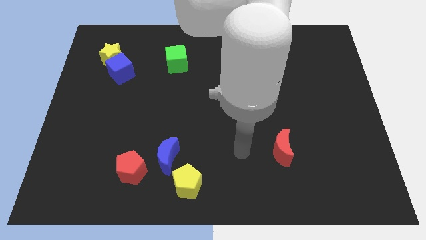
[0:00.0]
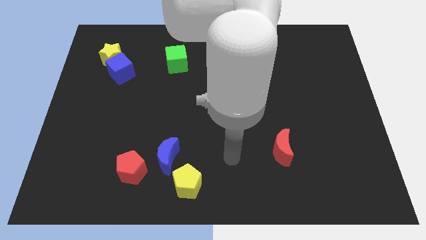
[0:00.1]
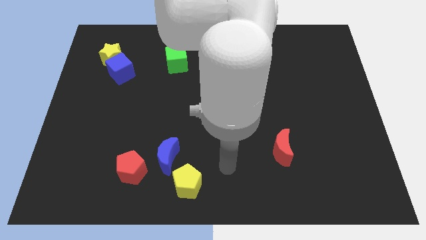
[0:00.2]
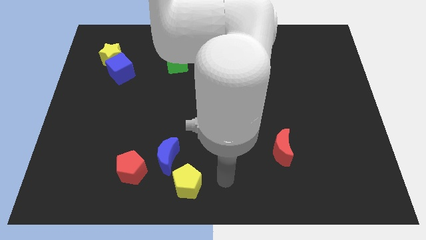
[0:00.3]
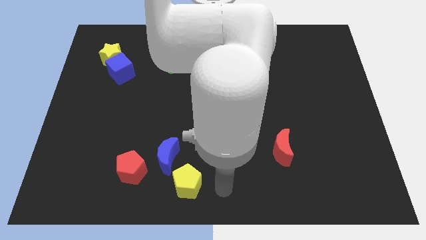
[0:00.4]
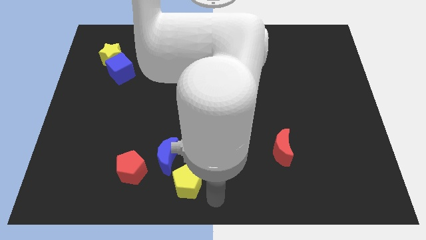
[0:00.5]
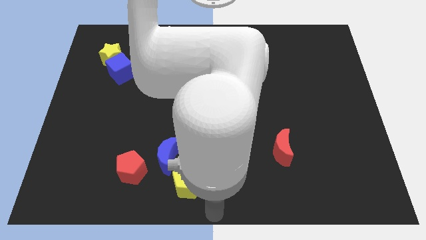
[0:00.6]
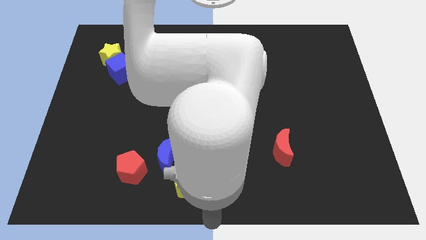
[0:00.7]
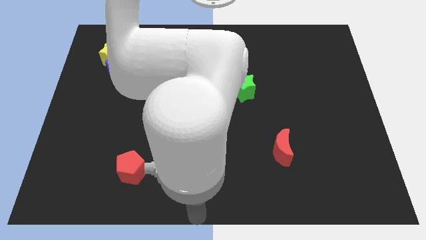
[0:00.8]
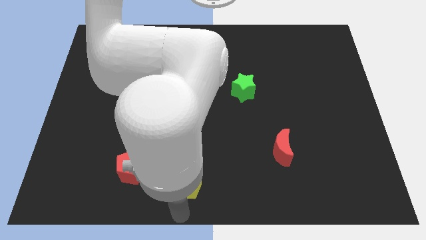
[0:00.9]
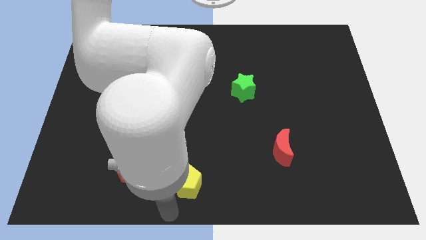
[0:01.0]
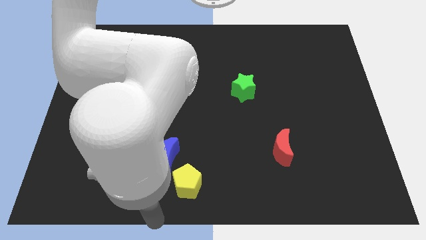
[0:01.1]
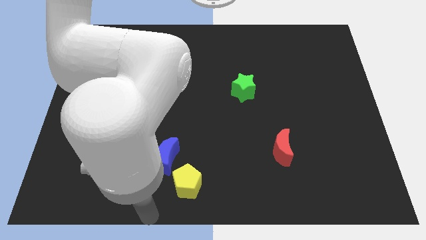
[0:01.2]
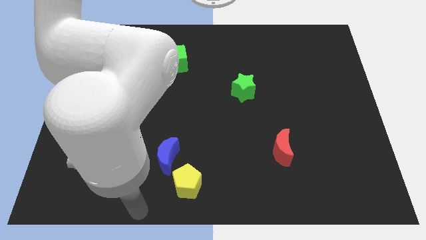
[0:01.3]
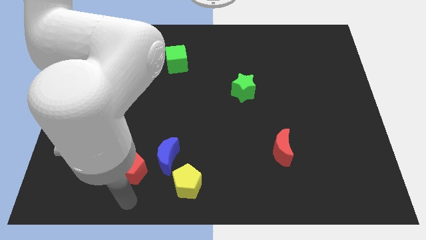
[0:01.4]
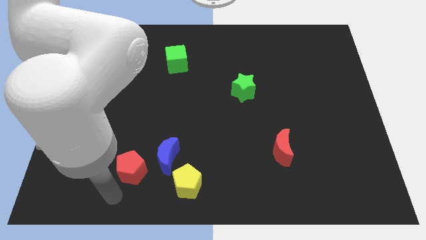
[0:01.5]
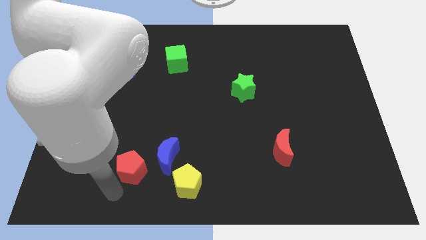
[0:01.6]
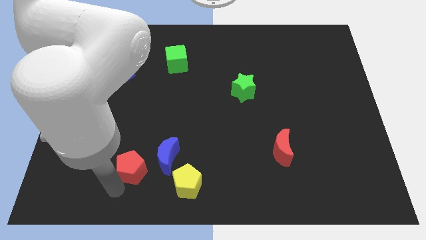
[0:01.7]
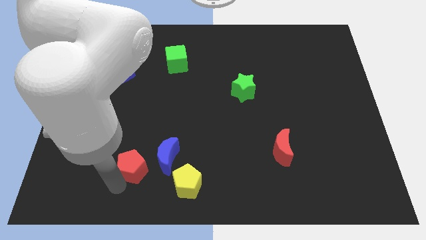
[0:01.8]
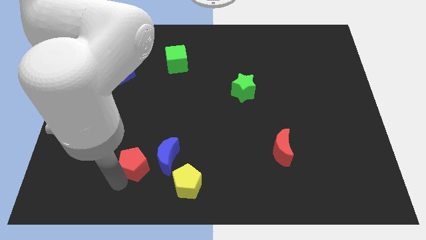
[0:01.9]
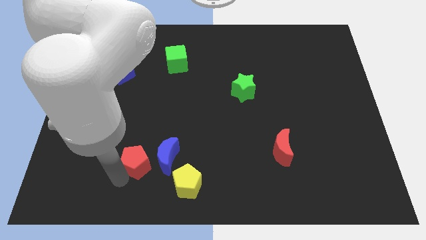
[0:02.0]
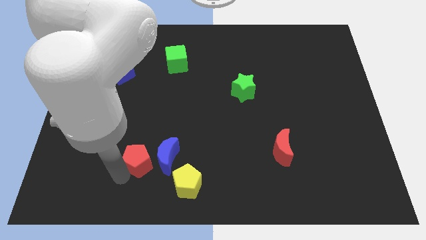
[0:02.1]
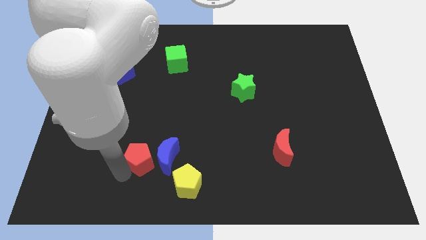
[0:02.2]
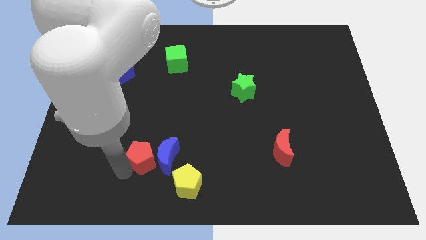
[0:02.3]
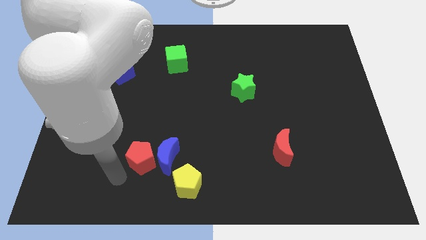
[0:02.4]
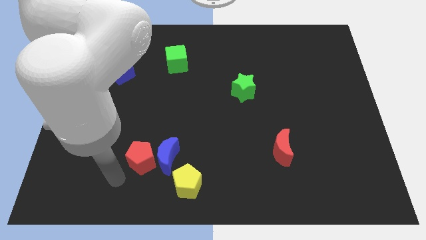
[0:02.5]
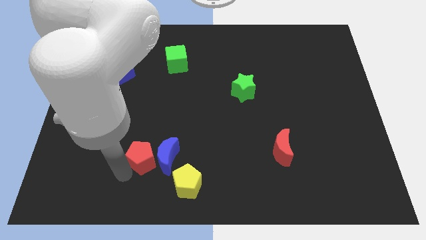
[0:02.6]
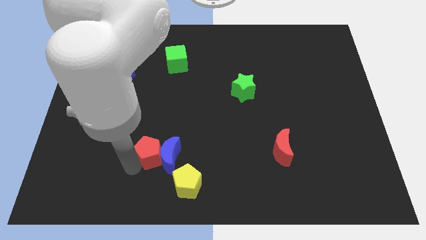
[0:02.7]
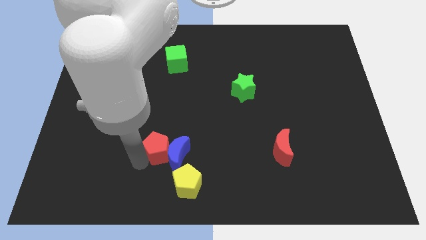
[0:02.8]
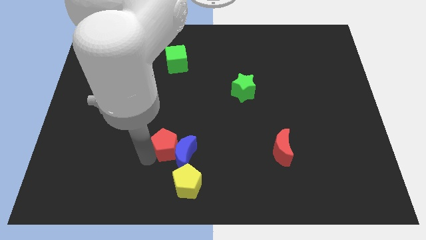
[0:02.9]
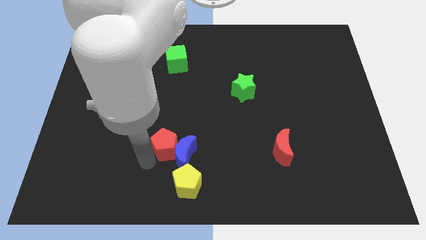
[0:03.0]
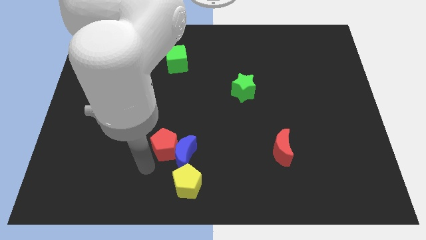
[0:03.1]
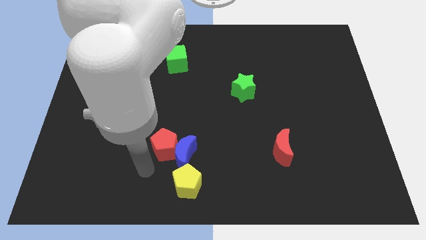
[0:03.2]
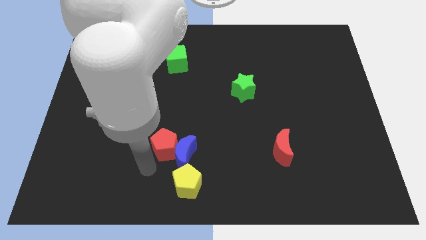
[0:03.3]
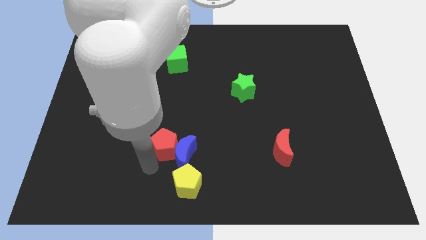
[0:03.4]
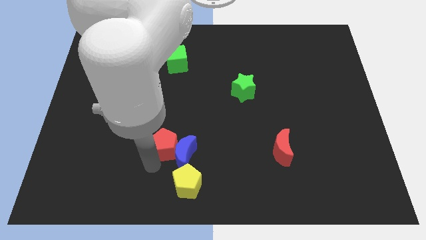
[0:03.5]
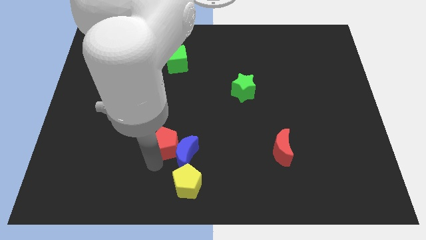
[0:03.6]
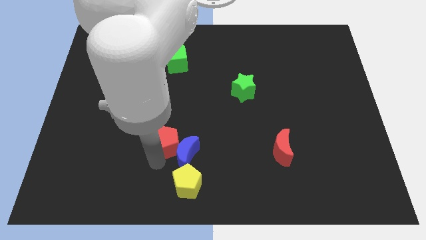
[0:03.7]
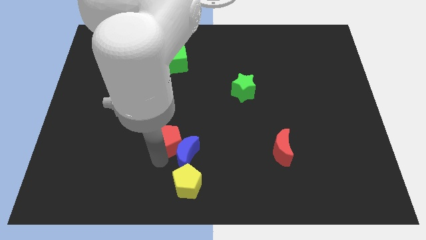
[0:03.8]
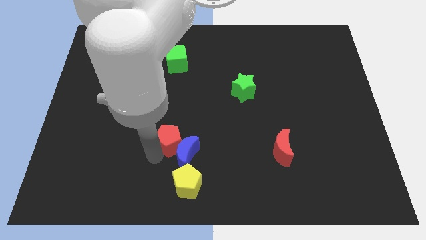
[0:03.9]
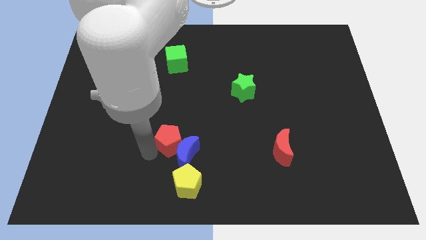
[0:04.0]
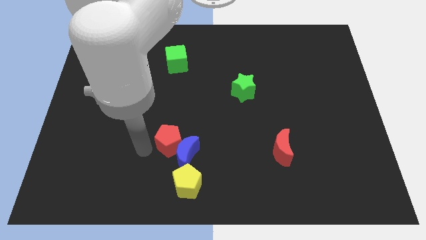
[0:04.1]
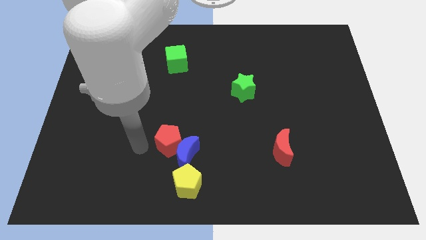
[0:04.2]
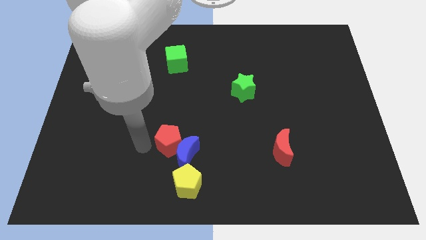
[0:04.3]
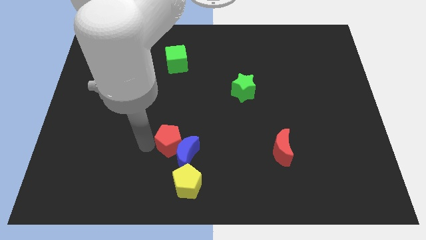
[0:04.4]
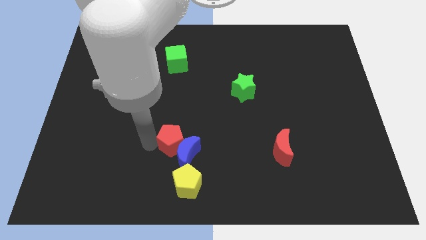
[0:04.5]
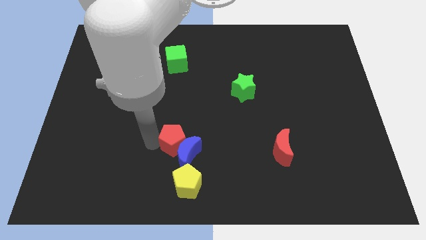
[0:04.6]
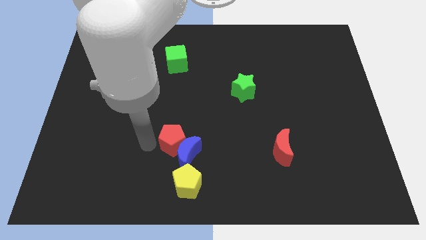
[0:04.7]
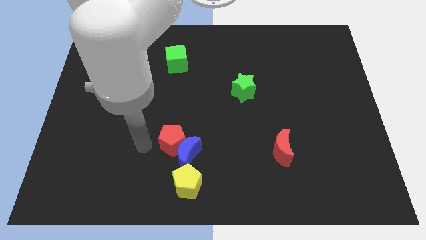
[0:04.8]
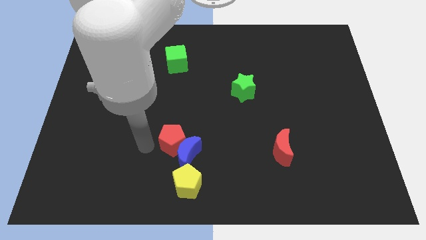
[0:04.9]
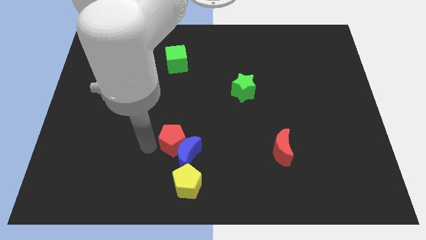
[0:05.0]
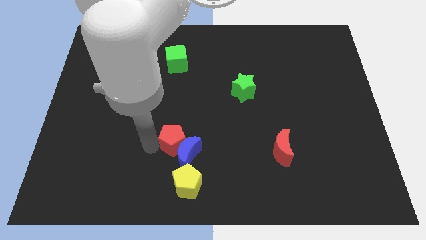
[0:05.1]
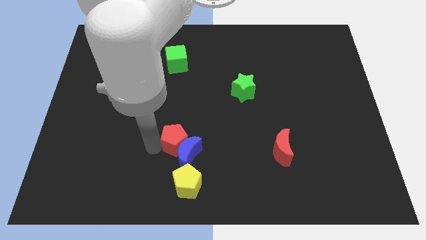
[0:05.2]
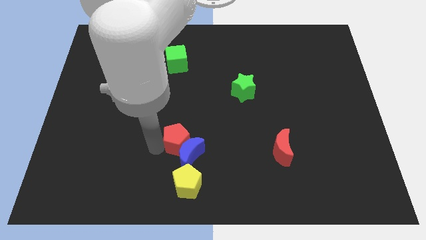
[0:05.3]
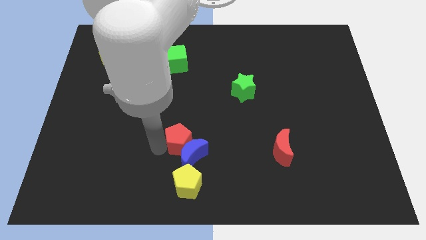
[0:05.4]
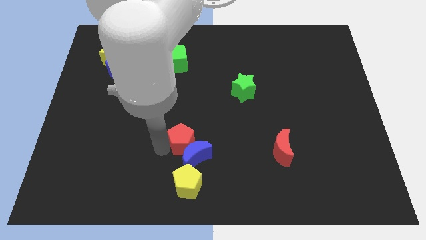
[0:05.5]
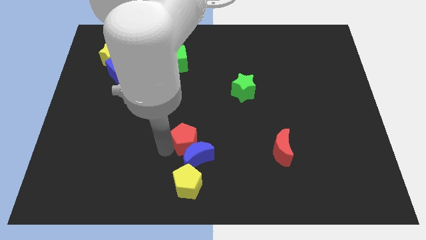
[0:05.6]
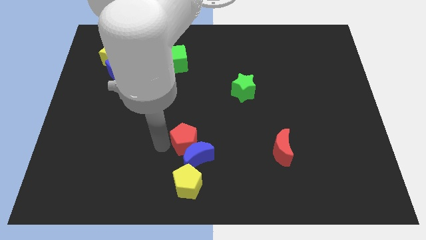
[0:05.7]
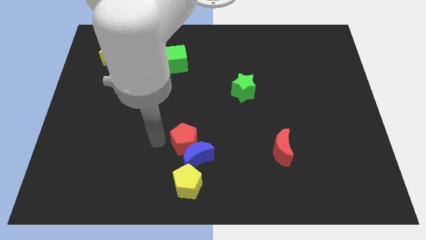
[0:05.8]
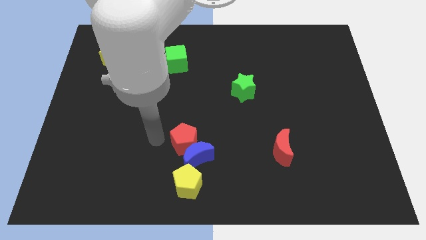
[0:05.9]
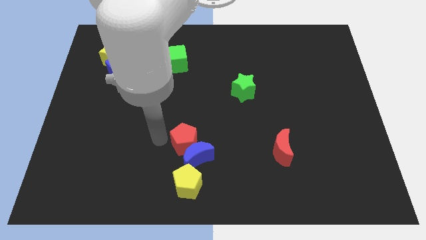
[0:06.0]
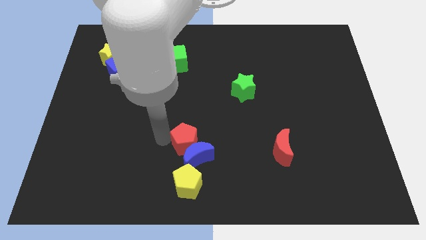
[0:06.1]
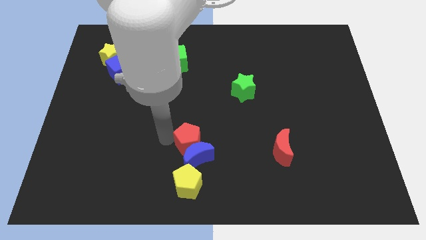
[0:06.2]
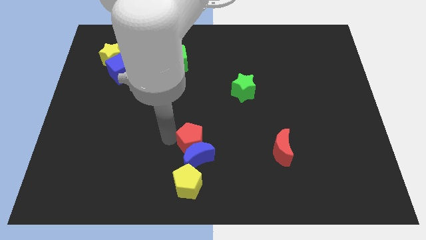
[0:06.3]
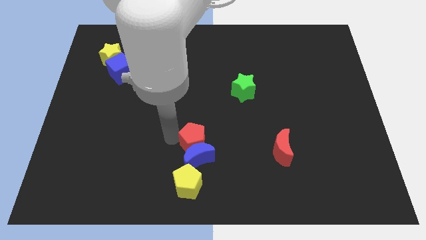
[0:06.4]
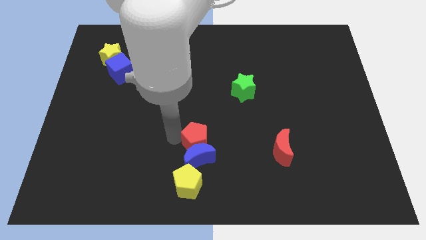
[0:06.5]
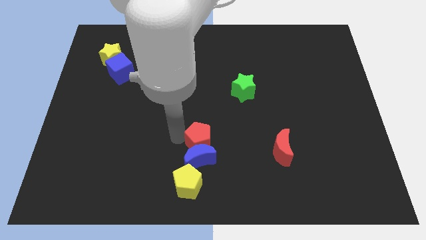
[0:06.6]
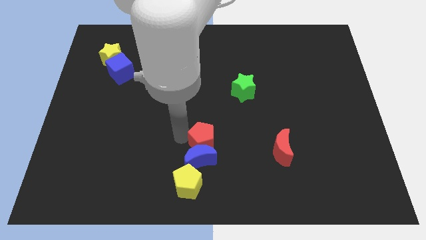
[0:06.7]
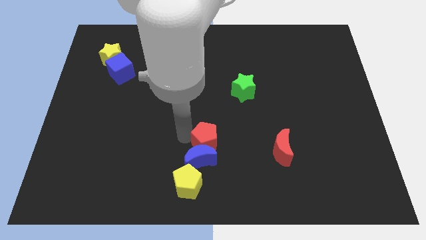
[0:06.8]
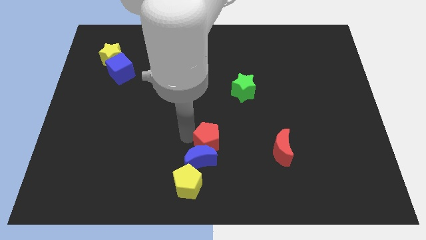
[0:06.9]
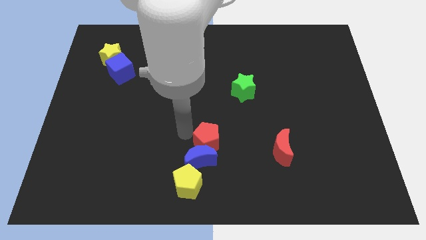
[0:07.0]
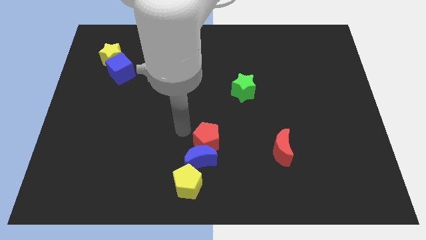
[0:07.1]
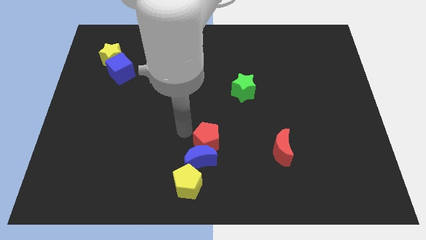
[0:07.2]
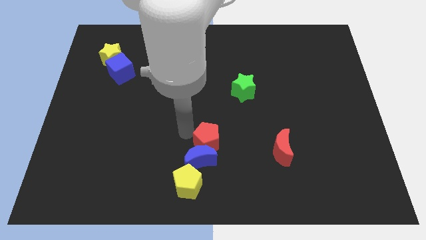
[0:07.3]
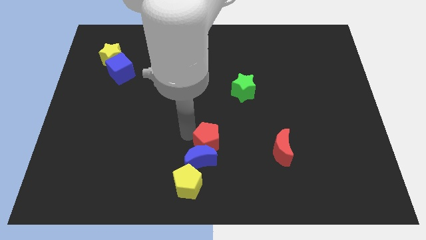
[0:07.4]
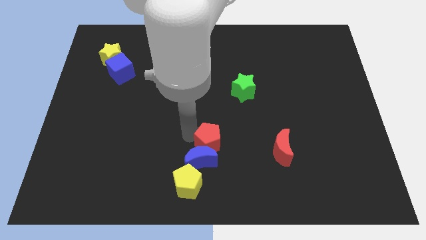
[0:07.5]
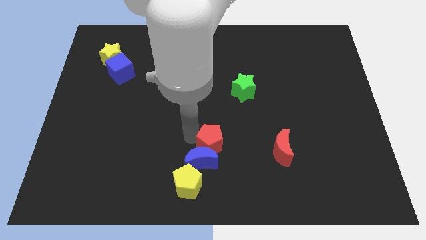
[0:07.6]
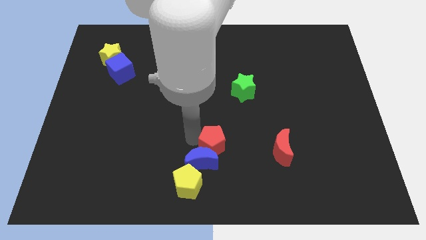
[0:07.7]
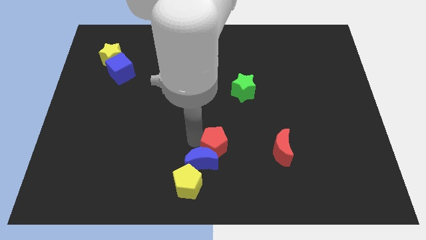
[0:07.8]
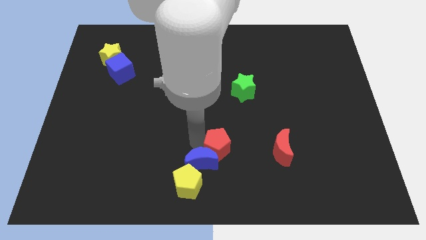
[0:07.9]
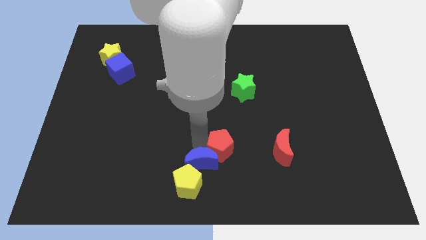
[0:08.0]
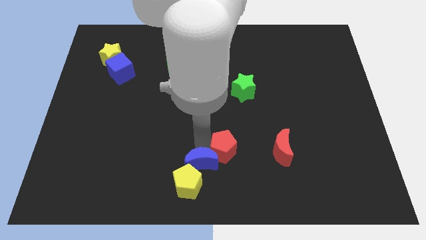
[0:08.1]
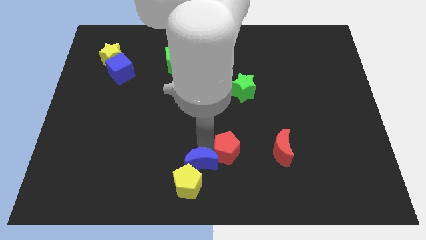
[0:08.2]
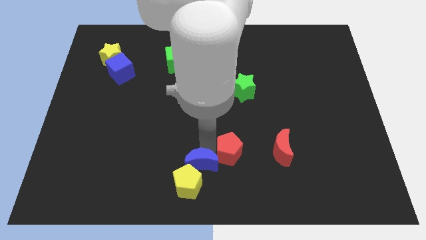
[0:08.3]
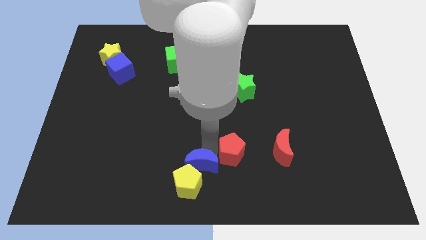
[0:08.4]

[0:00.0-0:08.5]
push the red pentagon right
